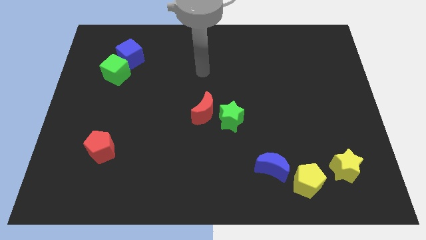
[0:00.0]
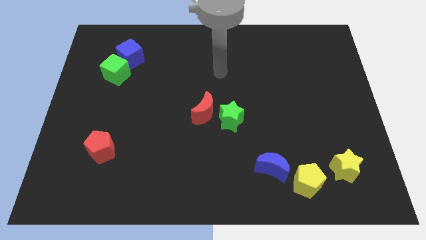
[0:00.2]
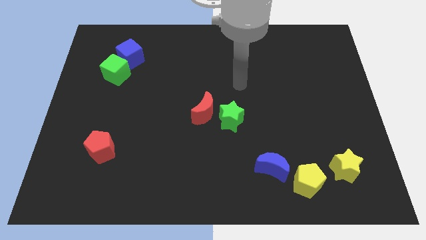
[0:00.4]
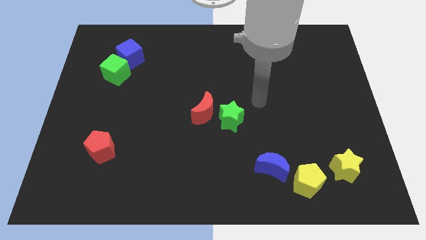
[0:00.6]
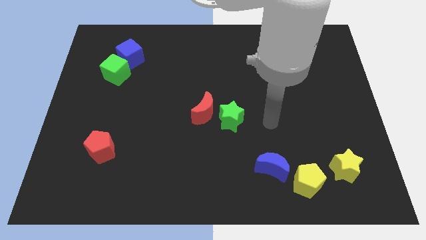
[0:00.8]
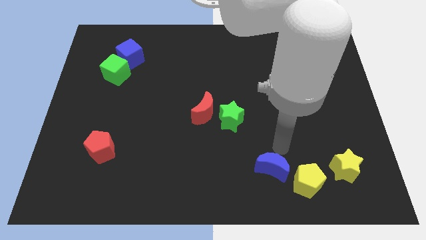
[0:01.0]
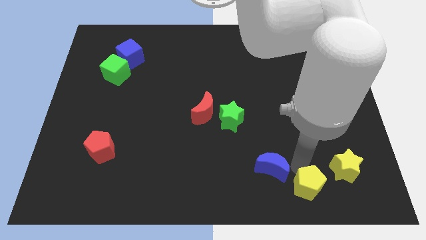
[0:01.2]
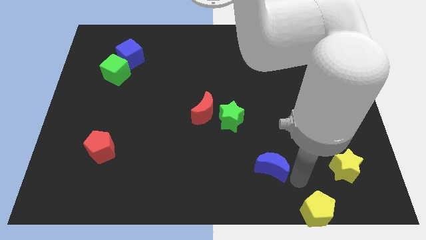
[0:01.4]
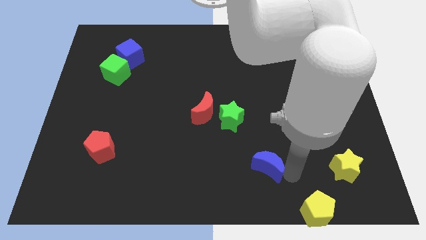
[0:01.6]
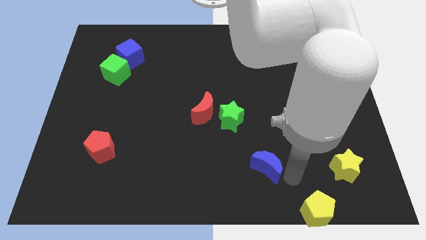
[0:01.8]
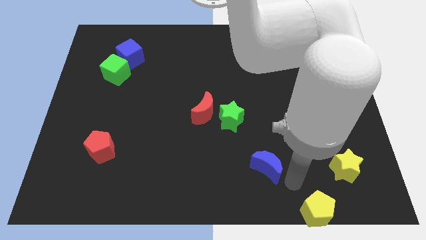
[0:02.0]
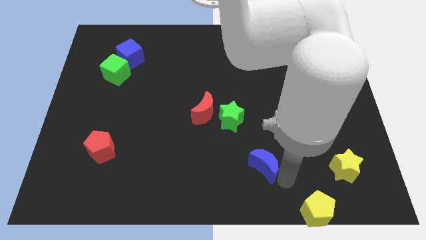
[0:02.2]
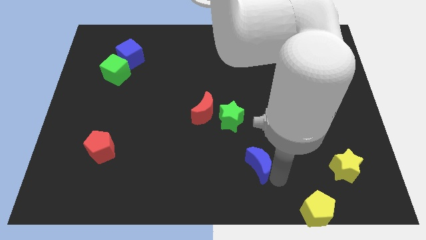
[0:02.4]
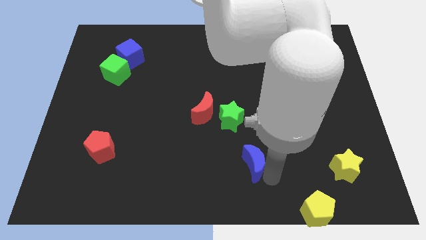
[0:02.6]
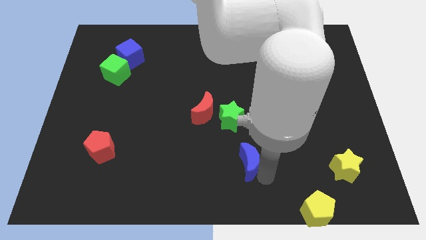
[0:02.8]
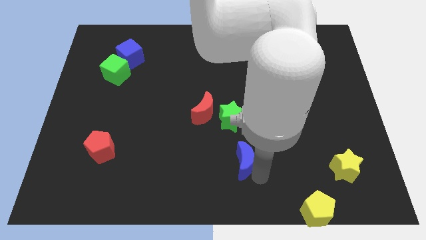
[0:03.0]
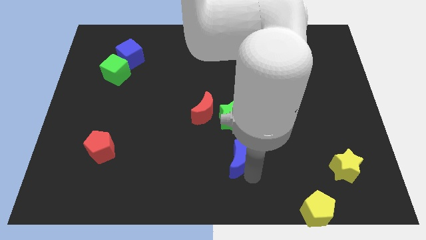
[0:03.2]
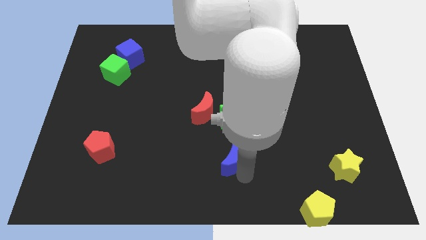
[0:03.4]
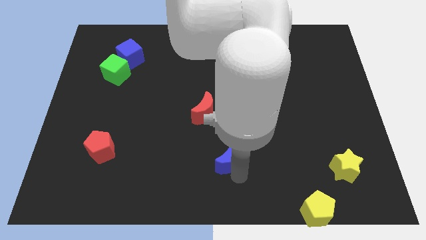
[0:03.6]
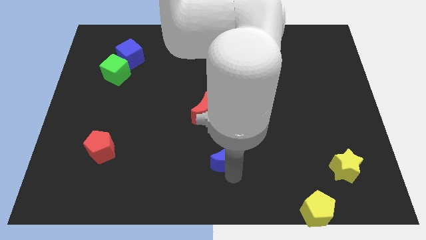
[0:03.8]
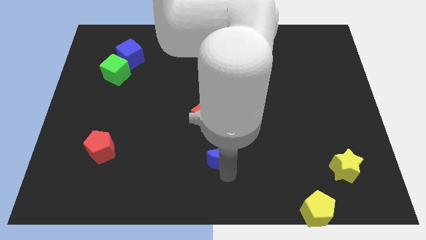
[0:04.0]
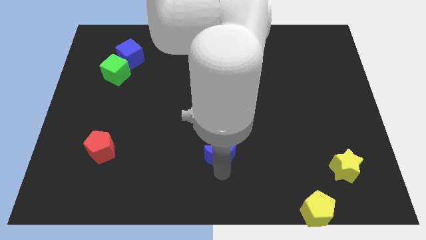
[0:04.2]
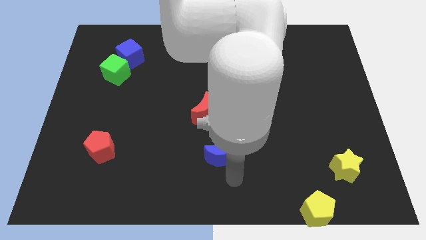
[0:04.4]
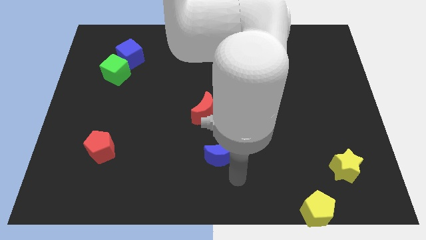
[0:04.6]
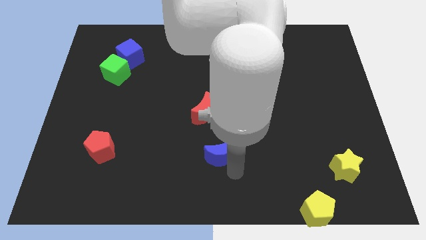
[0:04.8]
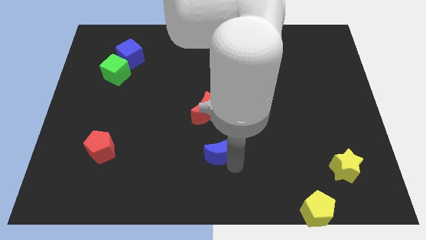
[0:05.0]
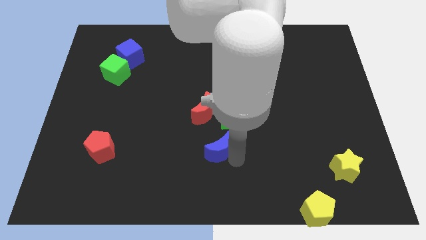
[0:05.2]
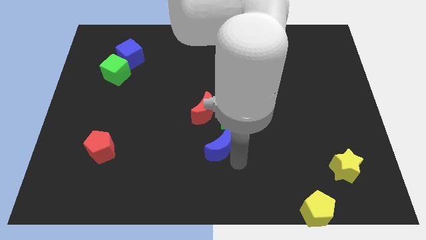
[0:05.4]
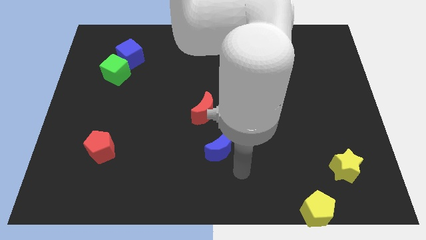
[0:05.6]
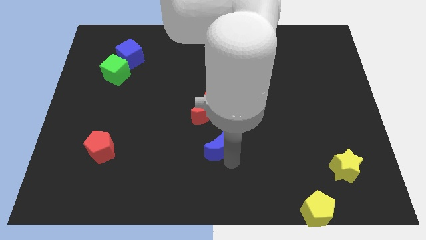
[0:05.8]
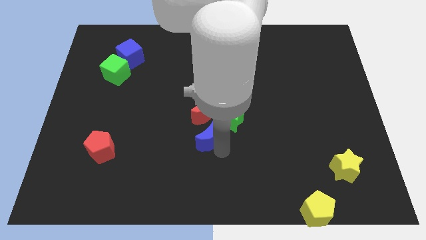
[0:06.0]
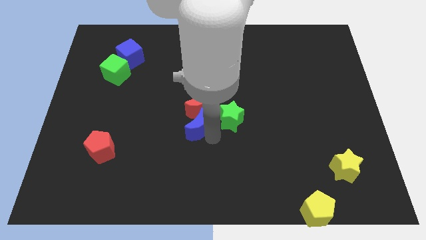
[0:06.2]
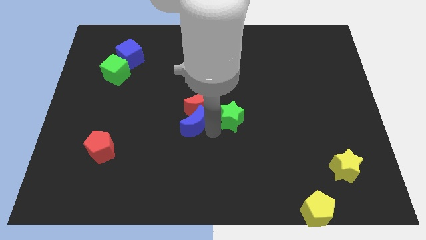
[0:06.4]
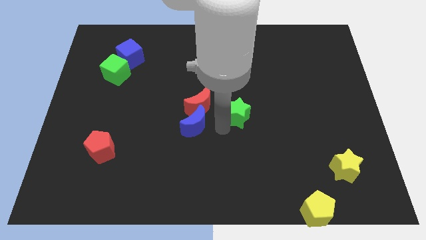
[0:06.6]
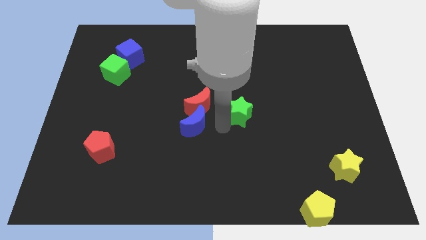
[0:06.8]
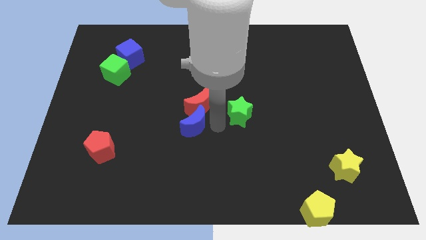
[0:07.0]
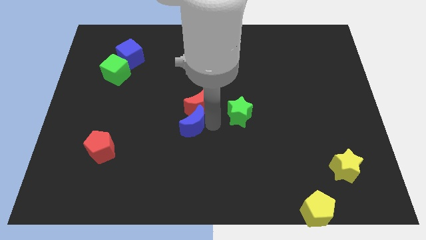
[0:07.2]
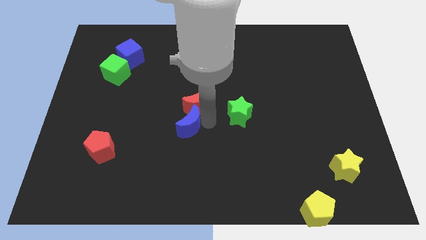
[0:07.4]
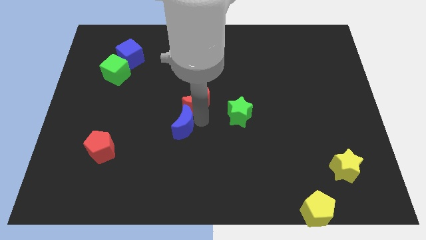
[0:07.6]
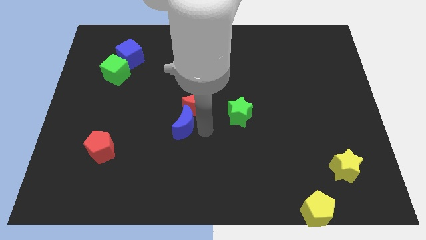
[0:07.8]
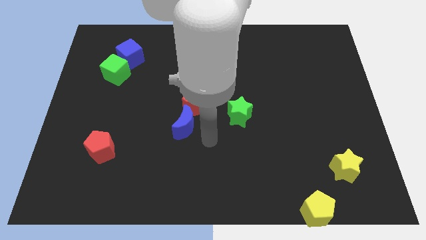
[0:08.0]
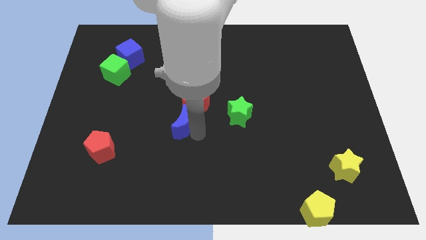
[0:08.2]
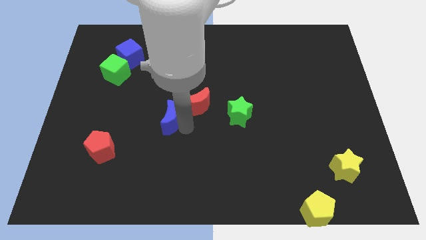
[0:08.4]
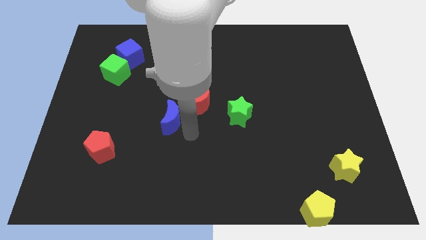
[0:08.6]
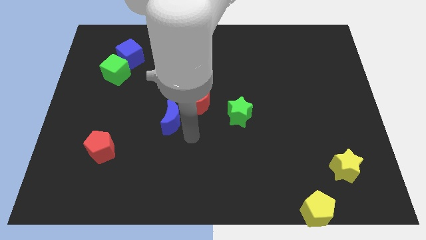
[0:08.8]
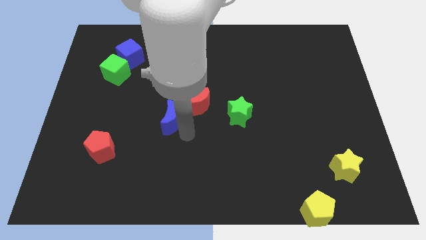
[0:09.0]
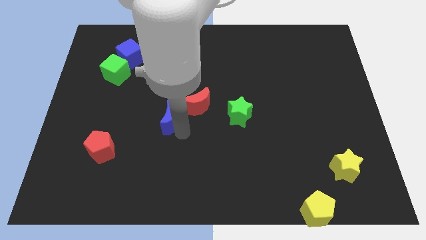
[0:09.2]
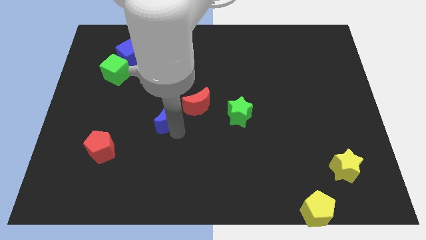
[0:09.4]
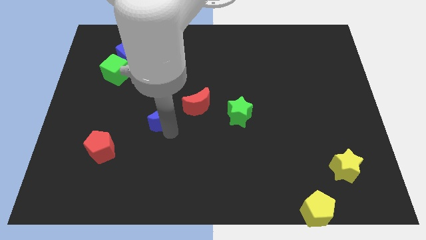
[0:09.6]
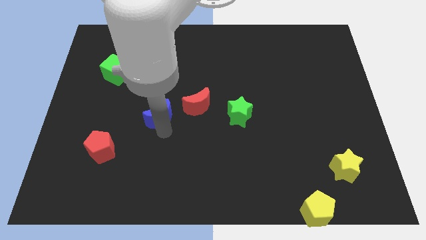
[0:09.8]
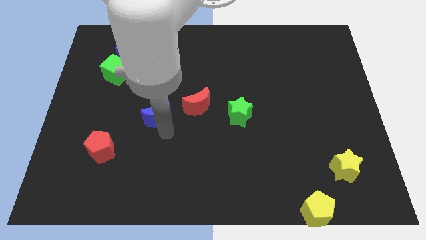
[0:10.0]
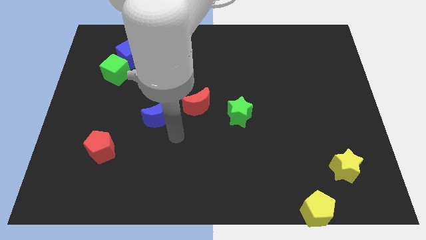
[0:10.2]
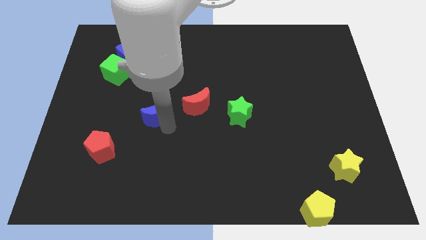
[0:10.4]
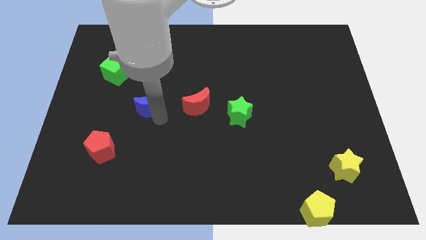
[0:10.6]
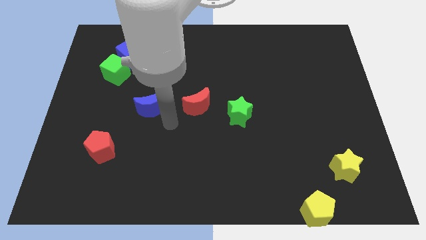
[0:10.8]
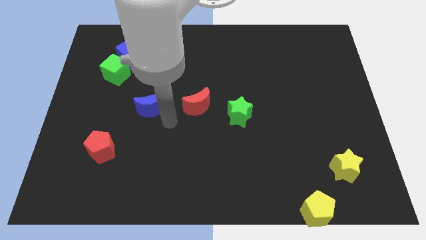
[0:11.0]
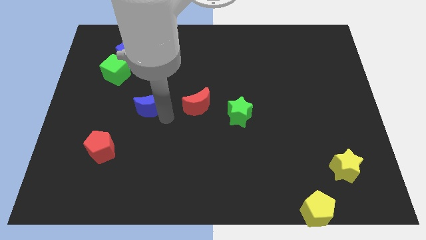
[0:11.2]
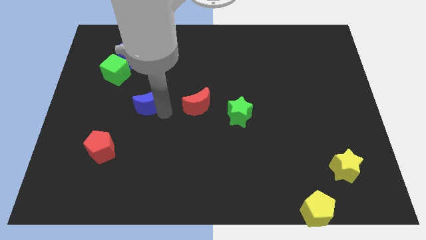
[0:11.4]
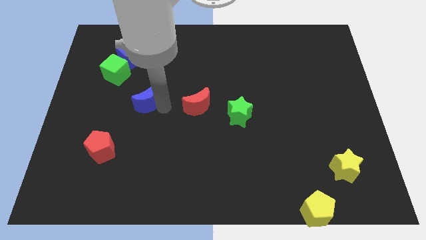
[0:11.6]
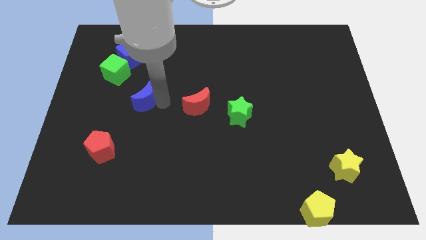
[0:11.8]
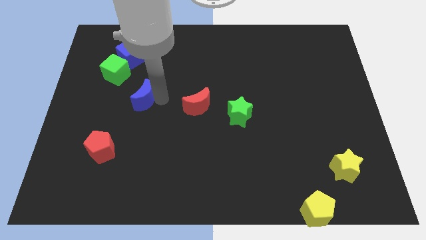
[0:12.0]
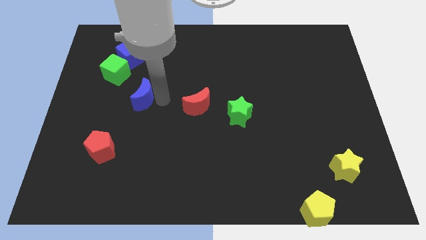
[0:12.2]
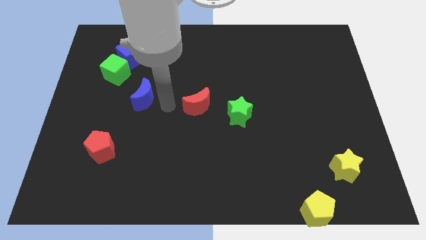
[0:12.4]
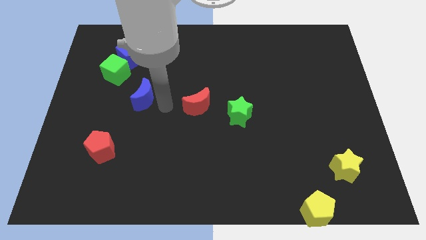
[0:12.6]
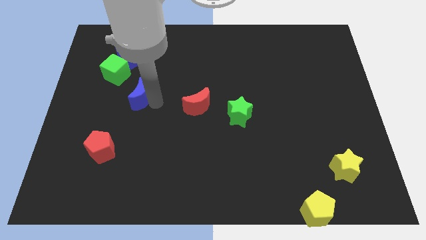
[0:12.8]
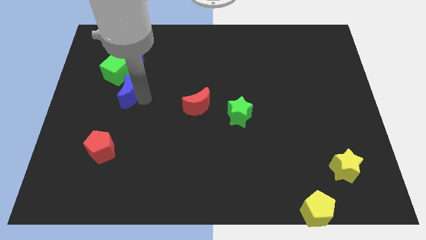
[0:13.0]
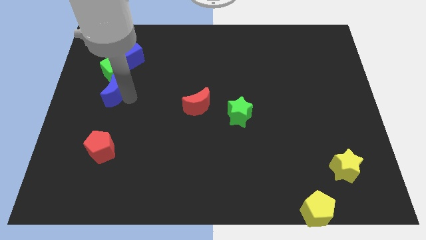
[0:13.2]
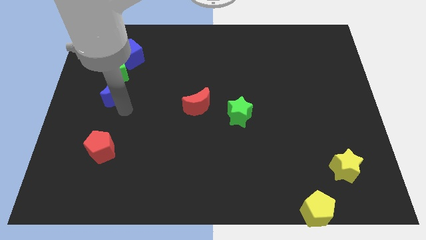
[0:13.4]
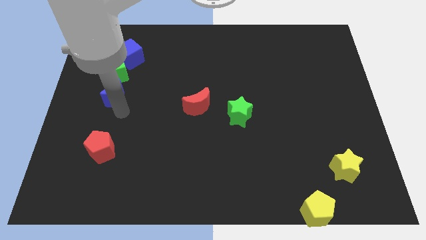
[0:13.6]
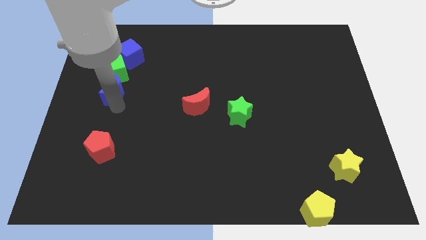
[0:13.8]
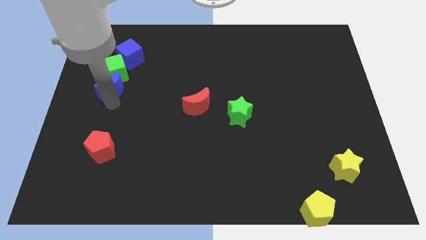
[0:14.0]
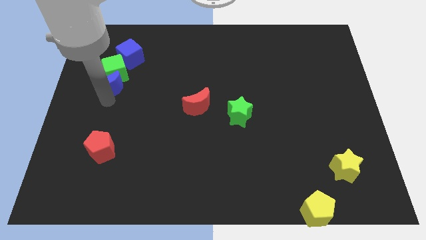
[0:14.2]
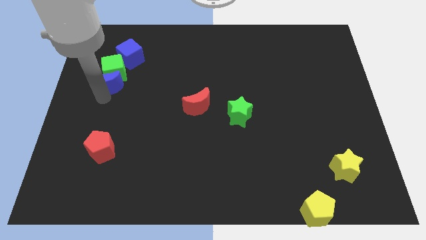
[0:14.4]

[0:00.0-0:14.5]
slide the blue moon to the bottom left side of the blue cube
